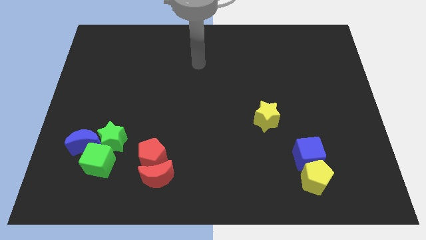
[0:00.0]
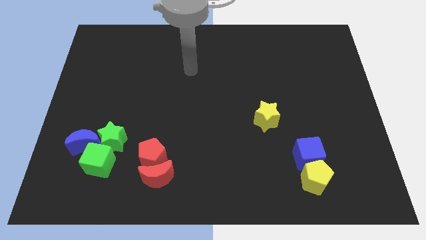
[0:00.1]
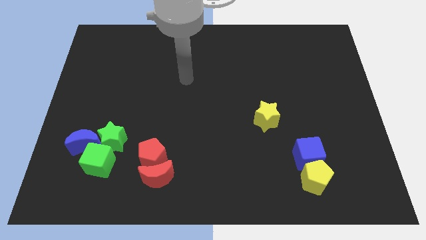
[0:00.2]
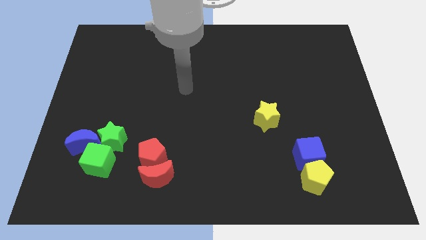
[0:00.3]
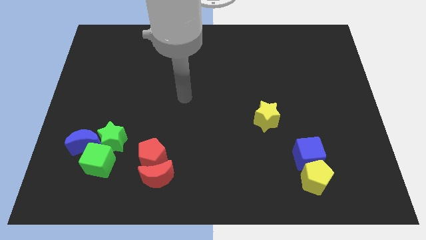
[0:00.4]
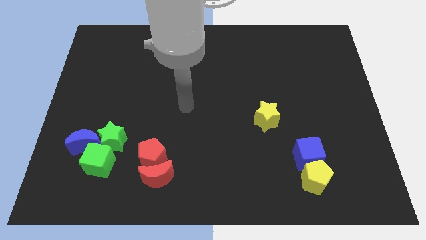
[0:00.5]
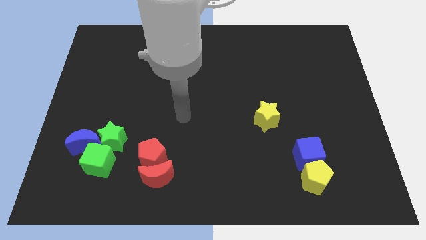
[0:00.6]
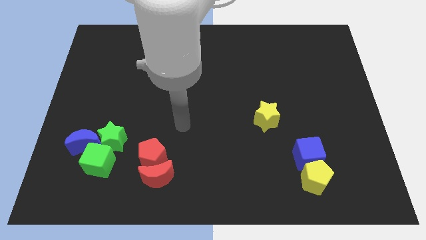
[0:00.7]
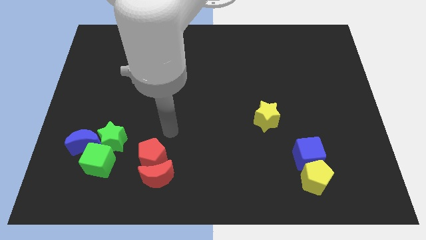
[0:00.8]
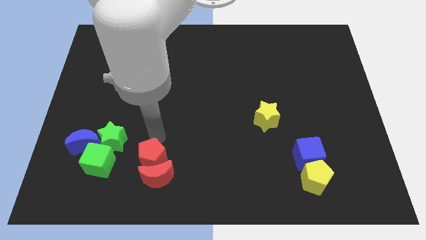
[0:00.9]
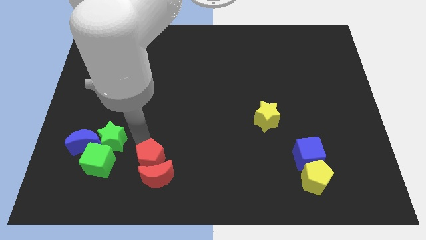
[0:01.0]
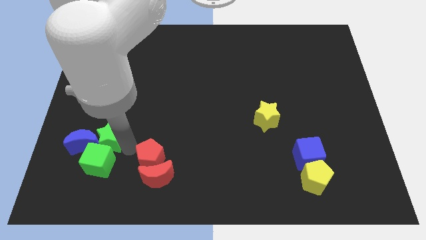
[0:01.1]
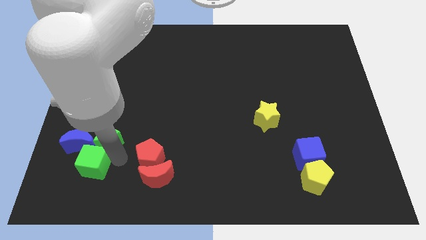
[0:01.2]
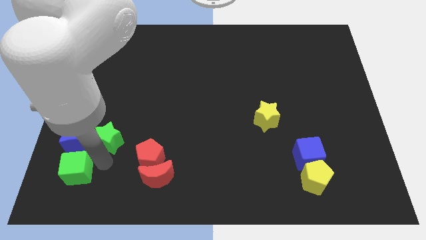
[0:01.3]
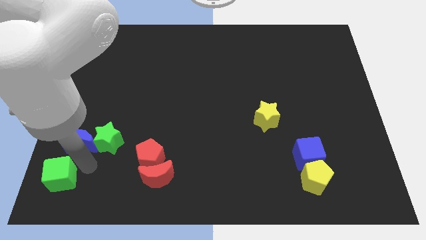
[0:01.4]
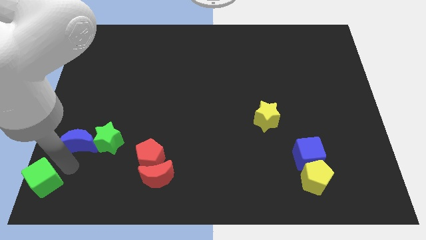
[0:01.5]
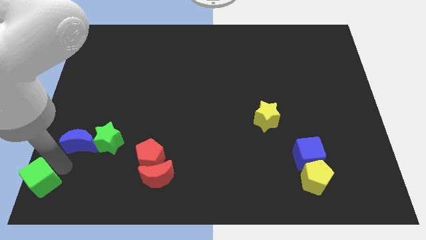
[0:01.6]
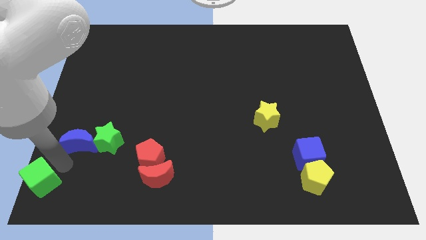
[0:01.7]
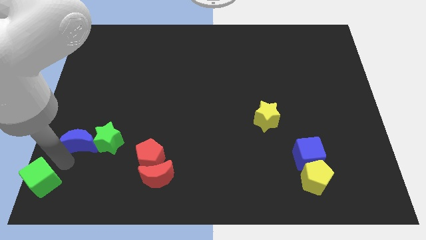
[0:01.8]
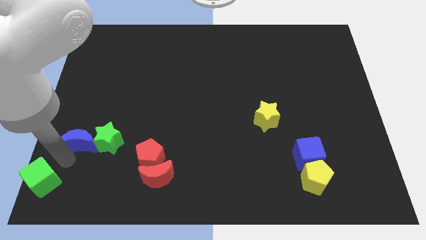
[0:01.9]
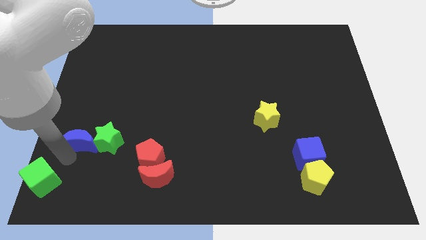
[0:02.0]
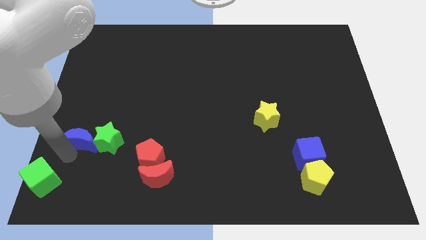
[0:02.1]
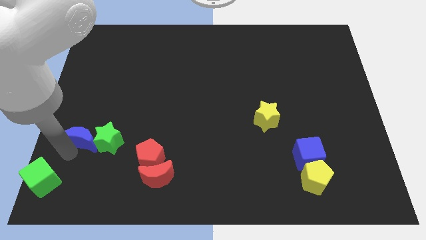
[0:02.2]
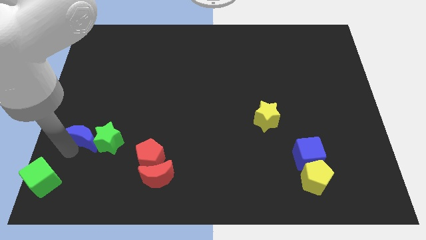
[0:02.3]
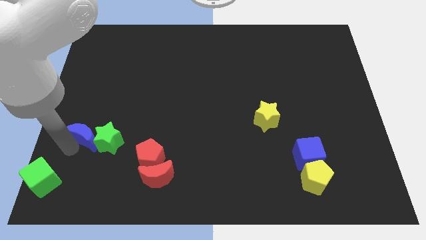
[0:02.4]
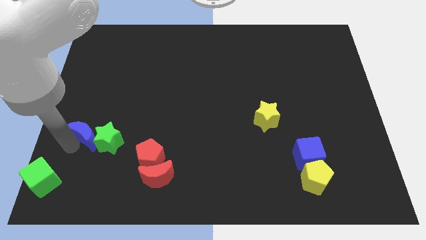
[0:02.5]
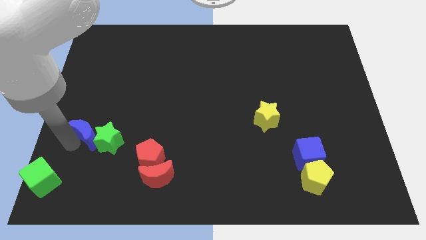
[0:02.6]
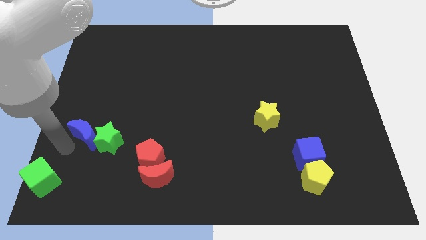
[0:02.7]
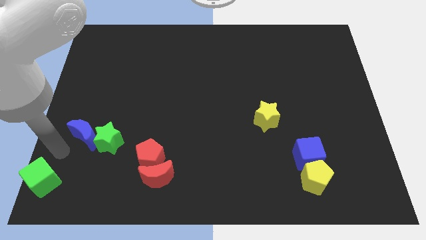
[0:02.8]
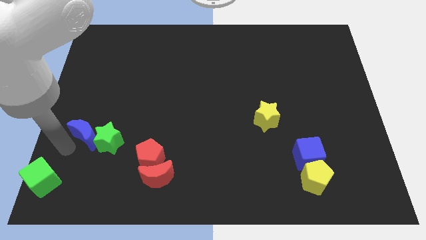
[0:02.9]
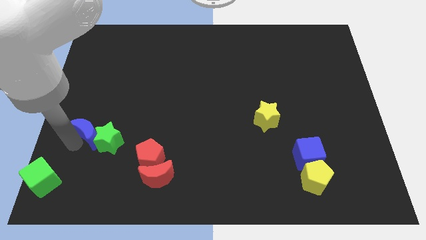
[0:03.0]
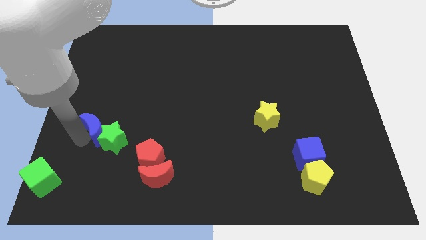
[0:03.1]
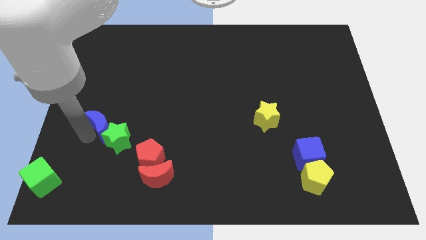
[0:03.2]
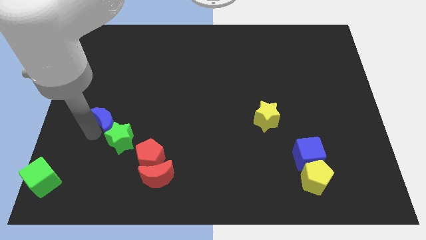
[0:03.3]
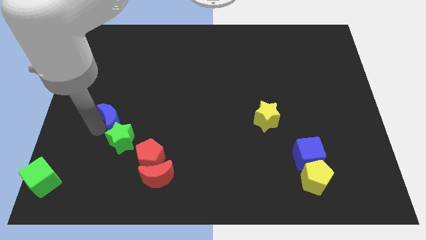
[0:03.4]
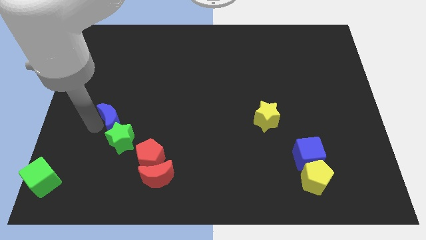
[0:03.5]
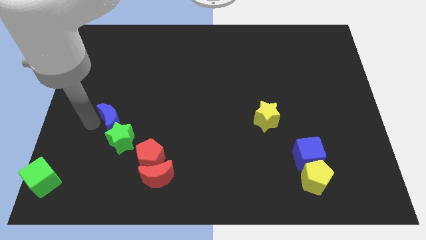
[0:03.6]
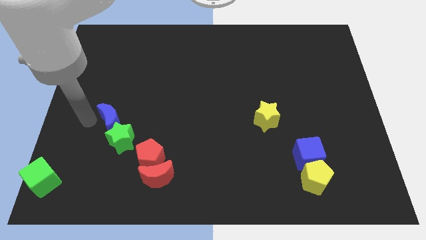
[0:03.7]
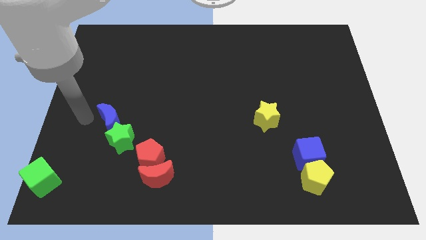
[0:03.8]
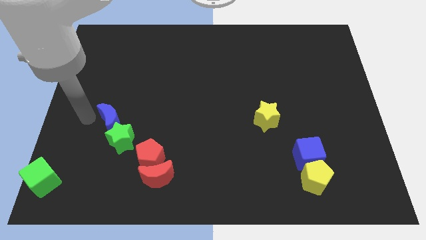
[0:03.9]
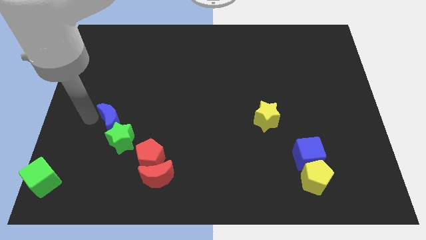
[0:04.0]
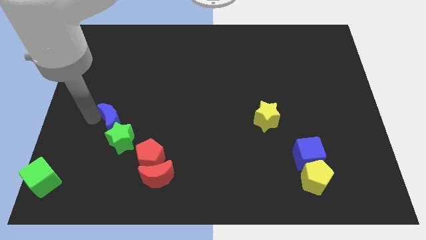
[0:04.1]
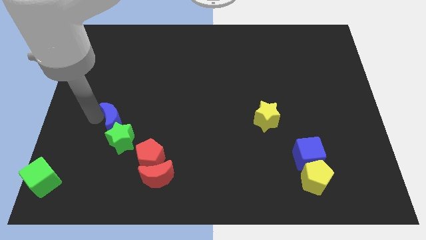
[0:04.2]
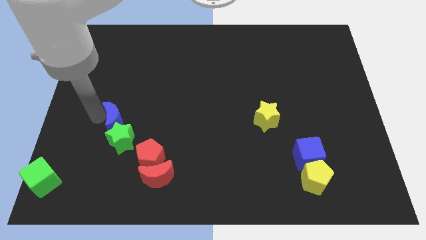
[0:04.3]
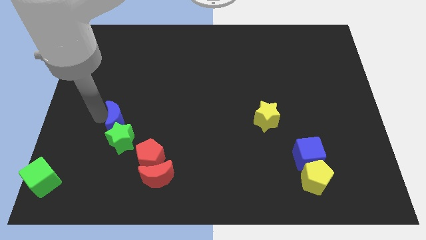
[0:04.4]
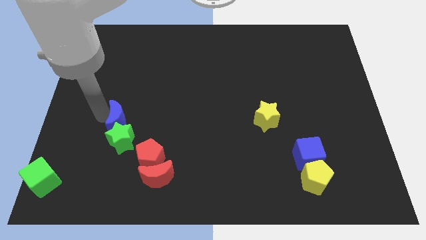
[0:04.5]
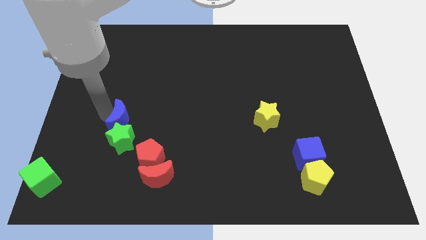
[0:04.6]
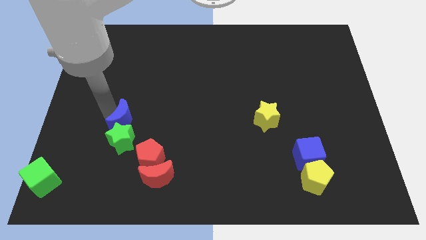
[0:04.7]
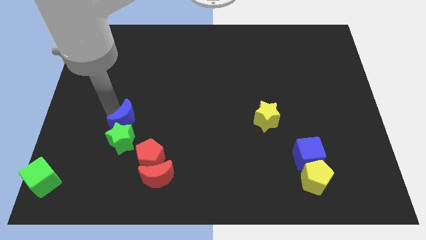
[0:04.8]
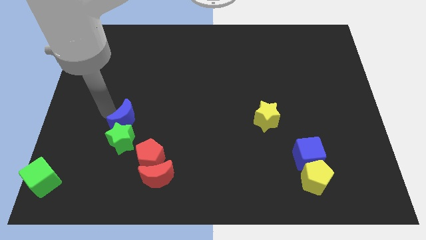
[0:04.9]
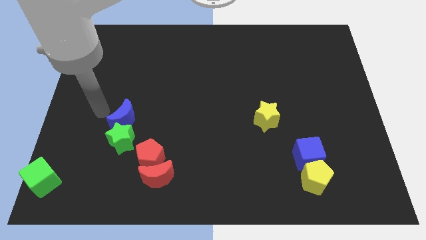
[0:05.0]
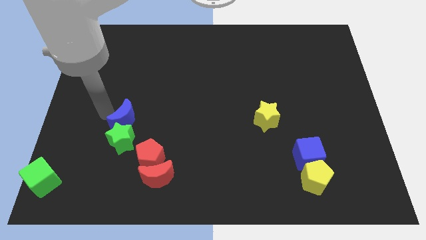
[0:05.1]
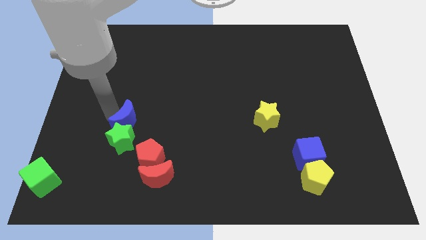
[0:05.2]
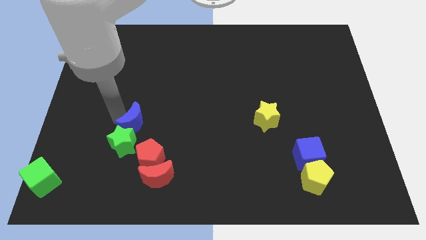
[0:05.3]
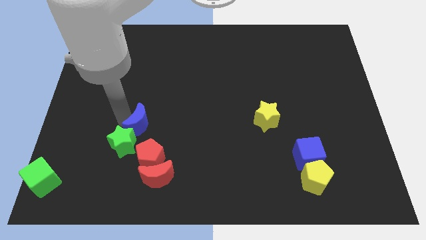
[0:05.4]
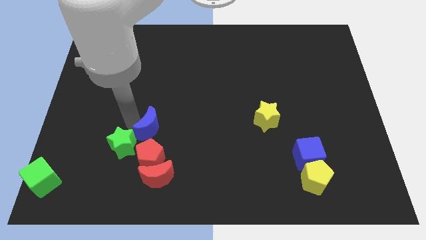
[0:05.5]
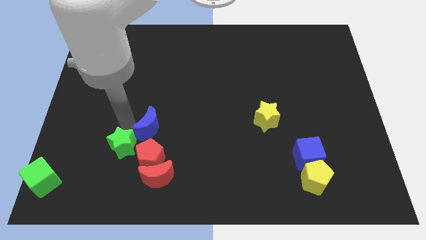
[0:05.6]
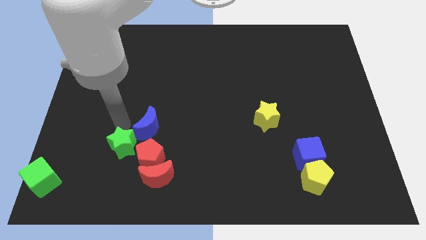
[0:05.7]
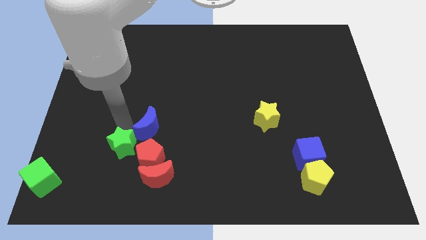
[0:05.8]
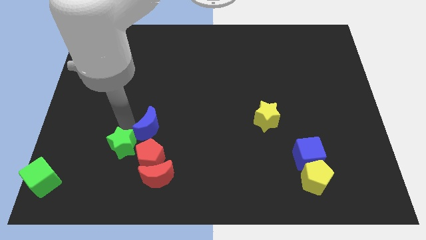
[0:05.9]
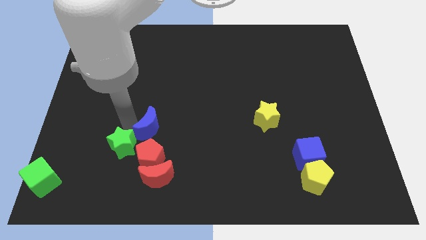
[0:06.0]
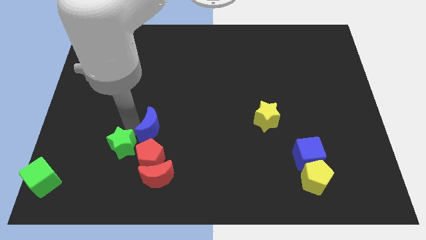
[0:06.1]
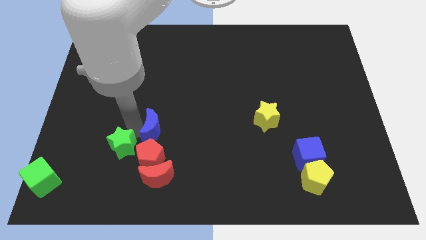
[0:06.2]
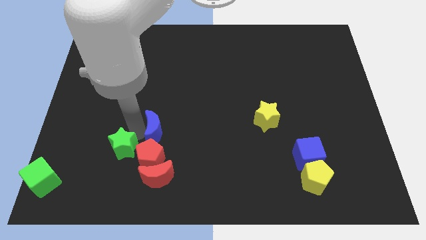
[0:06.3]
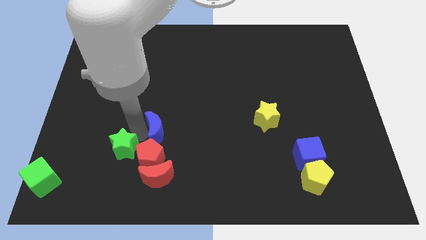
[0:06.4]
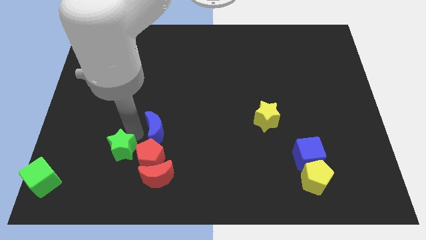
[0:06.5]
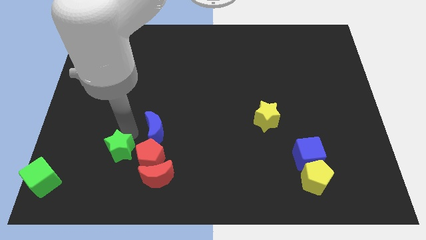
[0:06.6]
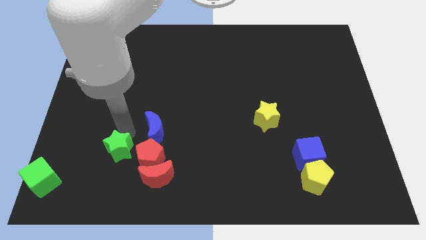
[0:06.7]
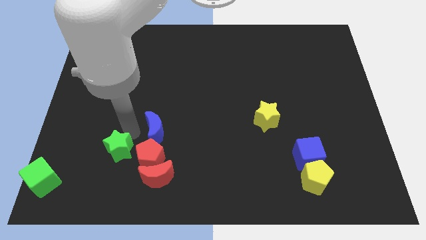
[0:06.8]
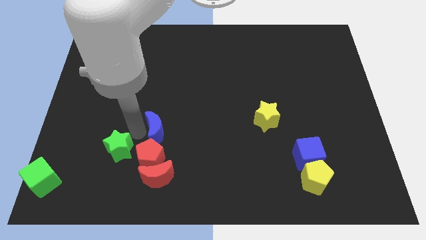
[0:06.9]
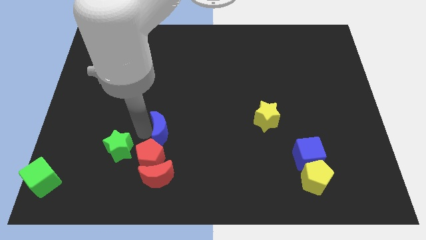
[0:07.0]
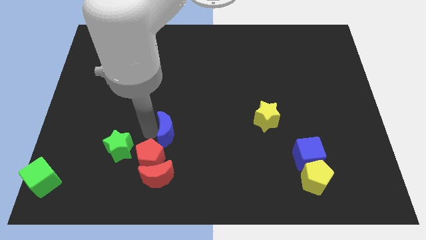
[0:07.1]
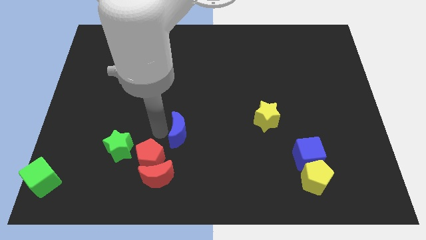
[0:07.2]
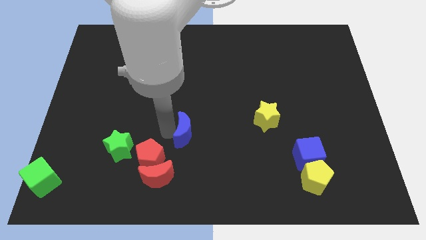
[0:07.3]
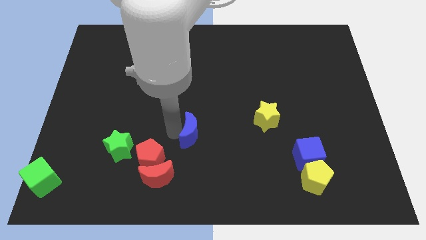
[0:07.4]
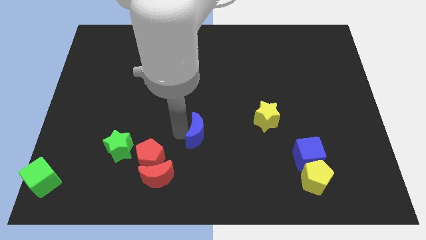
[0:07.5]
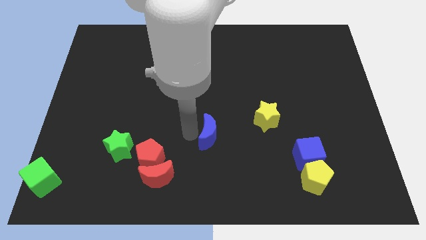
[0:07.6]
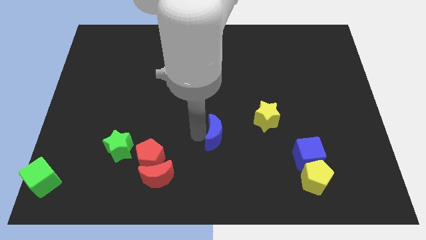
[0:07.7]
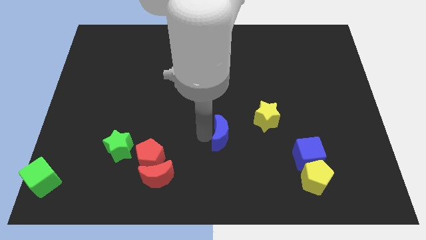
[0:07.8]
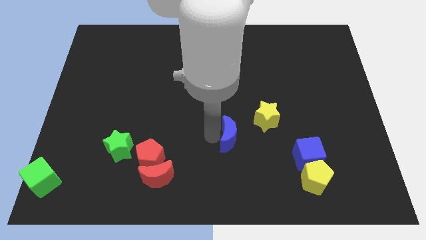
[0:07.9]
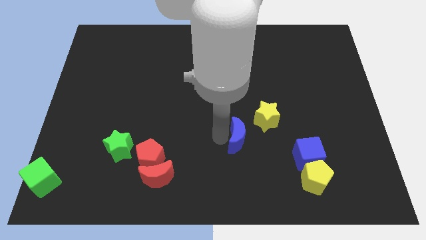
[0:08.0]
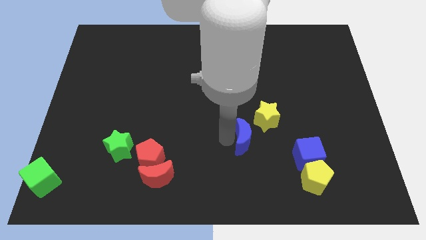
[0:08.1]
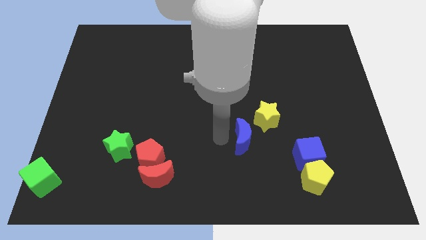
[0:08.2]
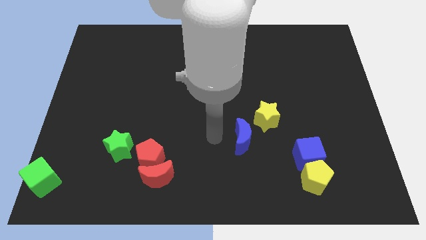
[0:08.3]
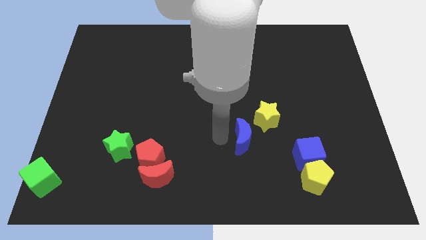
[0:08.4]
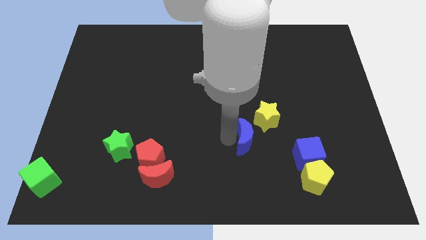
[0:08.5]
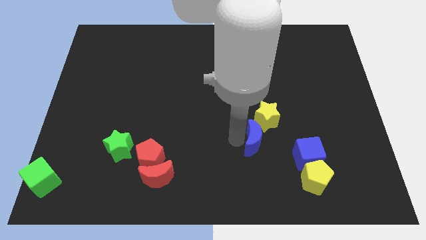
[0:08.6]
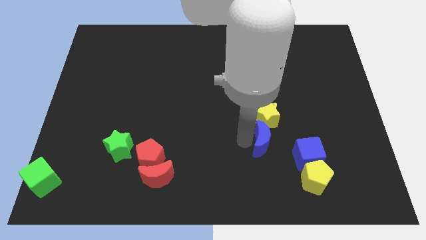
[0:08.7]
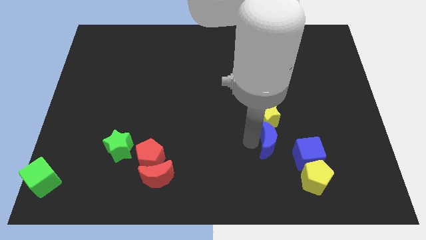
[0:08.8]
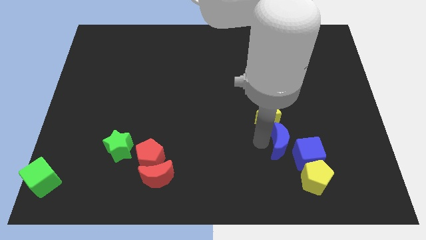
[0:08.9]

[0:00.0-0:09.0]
put the blue moon next to the blue cube
